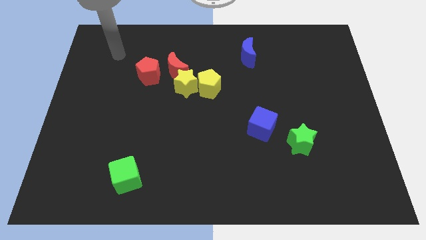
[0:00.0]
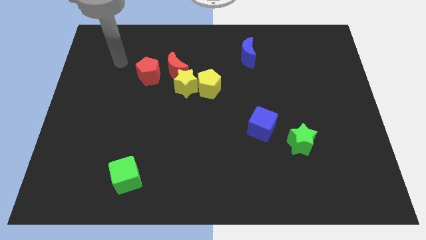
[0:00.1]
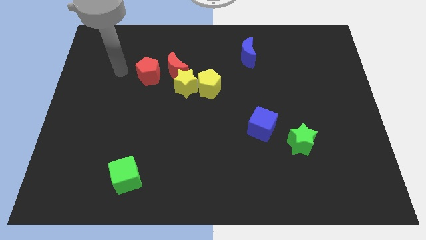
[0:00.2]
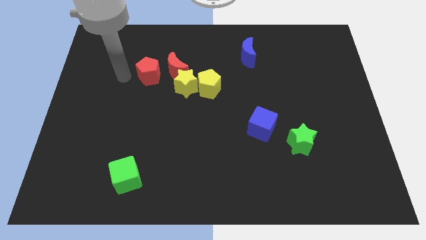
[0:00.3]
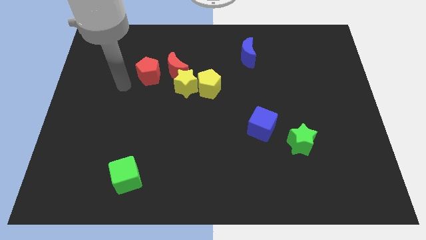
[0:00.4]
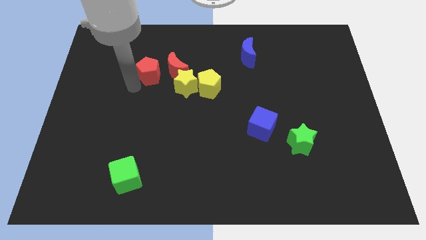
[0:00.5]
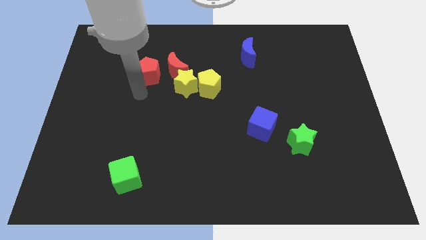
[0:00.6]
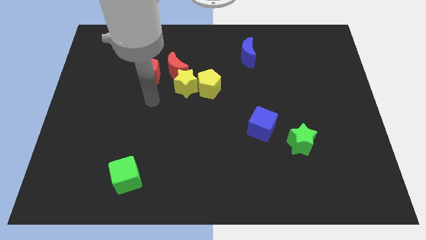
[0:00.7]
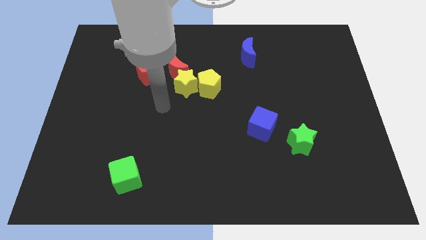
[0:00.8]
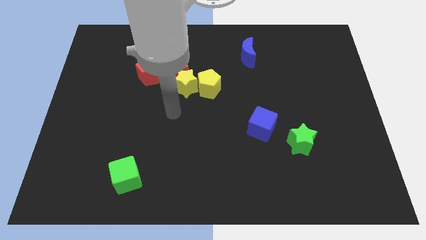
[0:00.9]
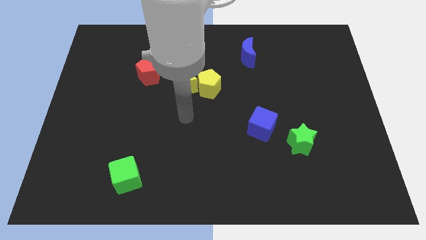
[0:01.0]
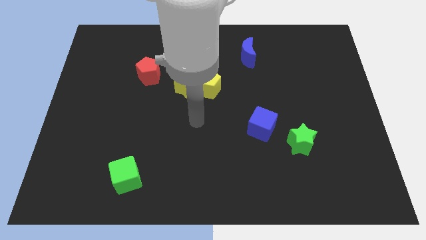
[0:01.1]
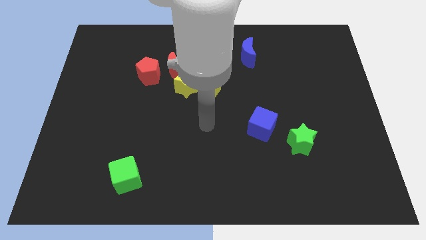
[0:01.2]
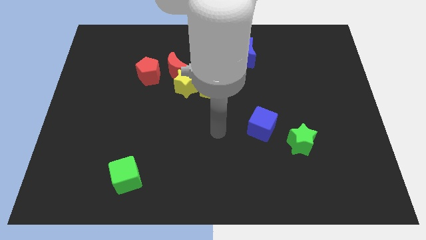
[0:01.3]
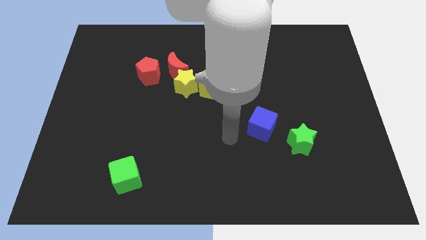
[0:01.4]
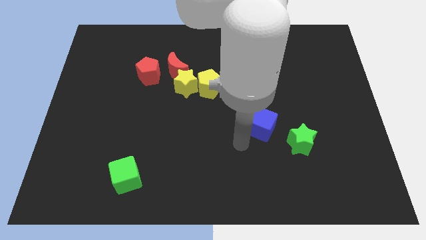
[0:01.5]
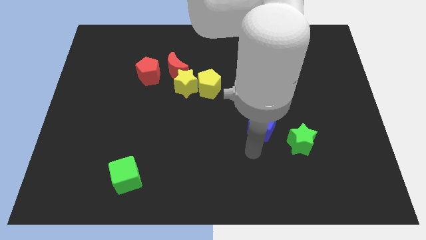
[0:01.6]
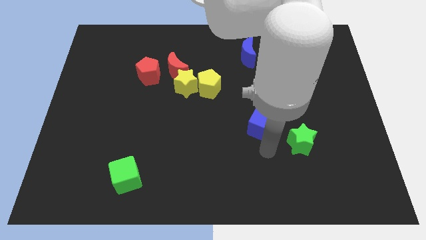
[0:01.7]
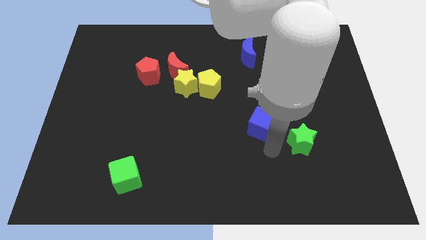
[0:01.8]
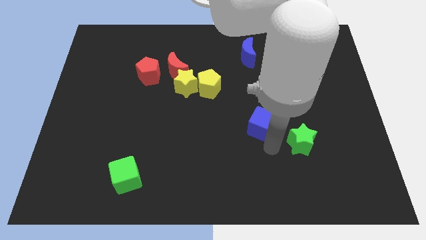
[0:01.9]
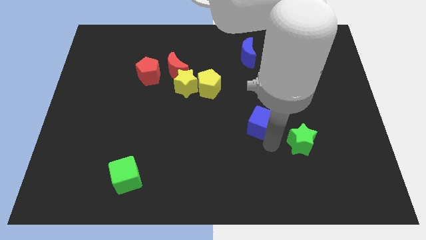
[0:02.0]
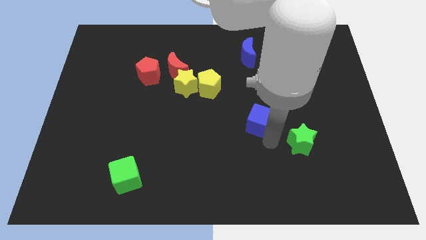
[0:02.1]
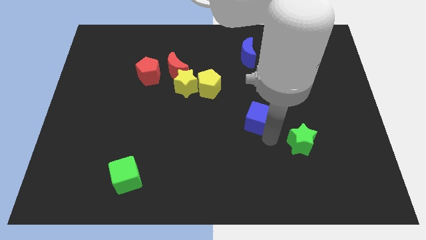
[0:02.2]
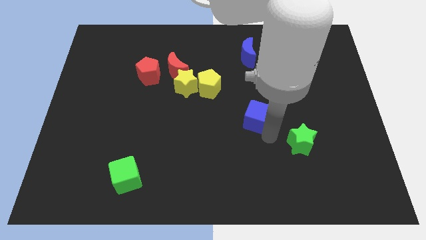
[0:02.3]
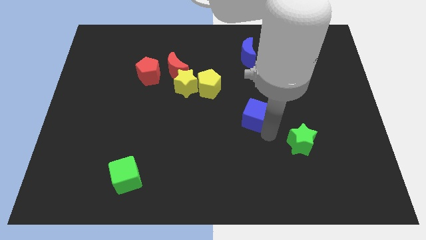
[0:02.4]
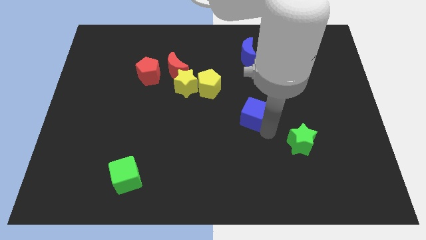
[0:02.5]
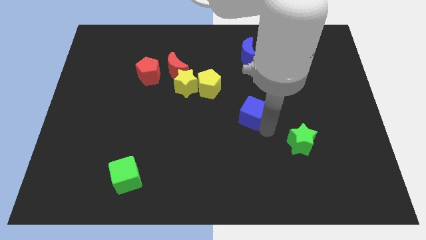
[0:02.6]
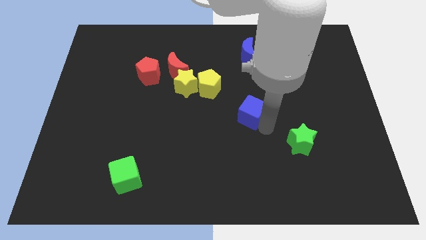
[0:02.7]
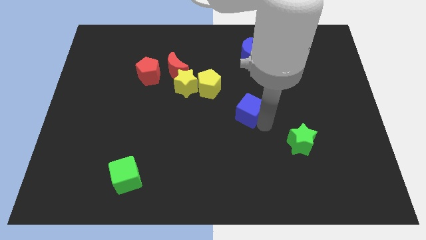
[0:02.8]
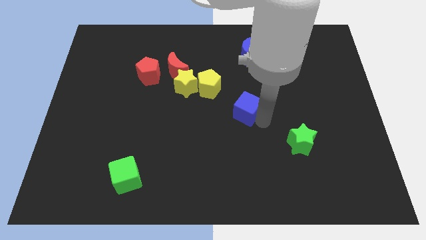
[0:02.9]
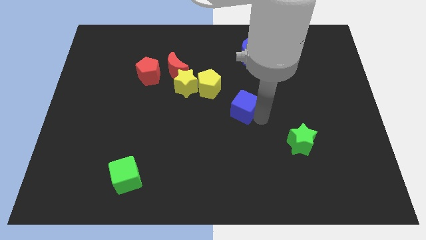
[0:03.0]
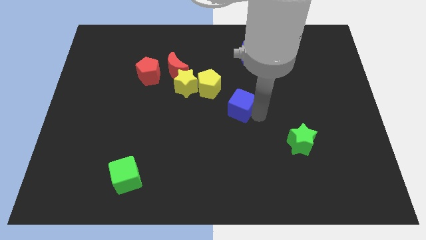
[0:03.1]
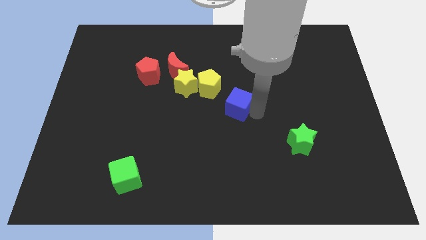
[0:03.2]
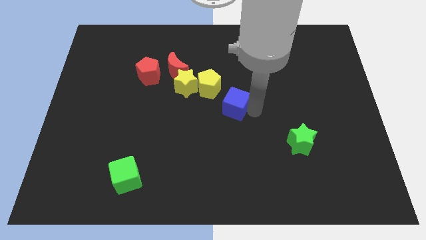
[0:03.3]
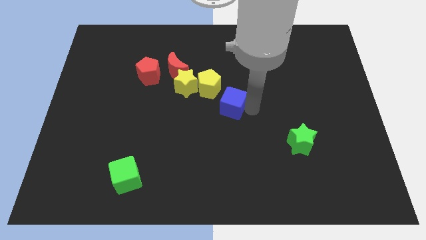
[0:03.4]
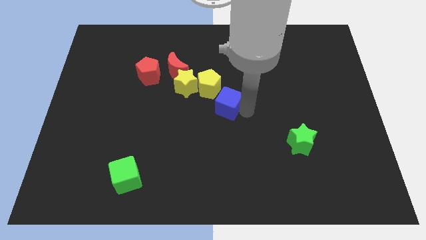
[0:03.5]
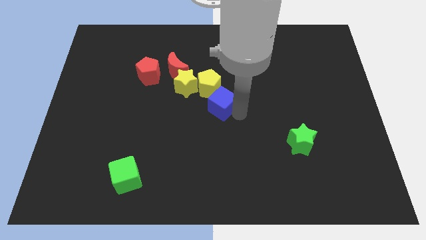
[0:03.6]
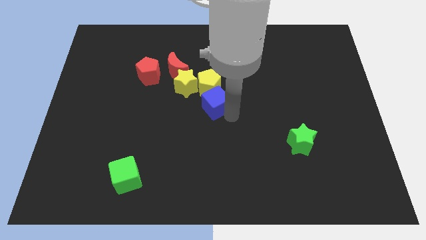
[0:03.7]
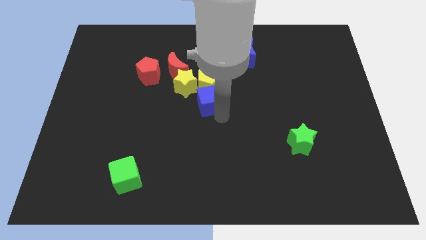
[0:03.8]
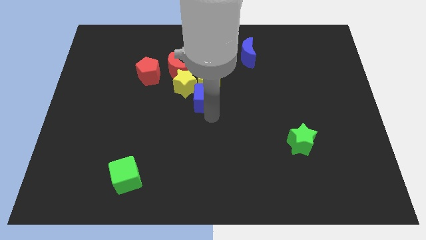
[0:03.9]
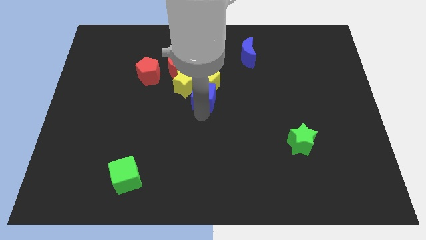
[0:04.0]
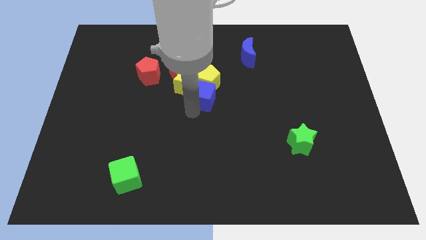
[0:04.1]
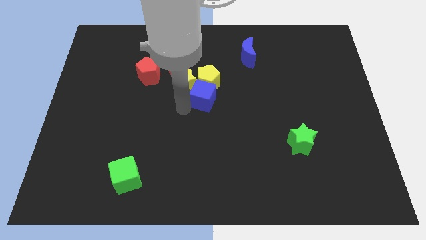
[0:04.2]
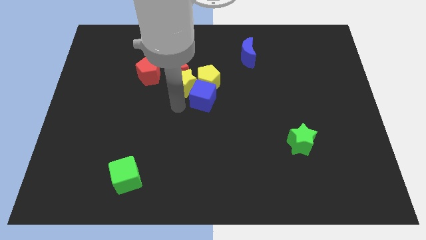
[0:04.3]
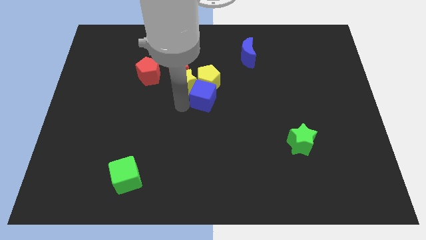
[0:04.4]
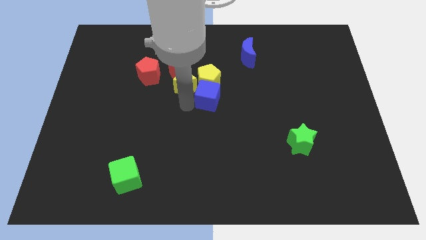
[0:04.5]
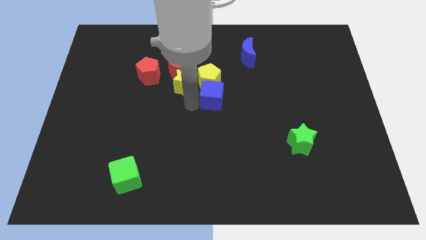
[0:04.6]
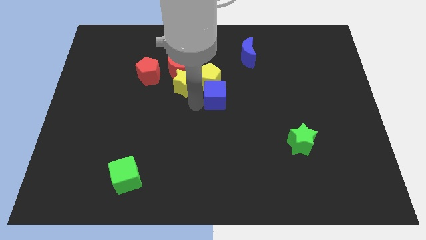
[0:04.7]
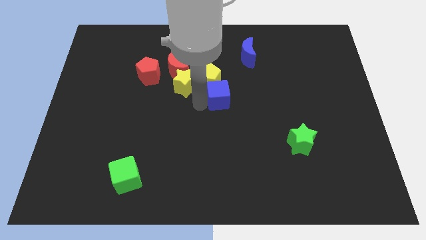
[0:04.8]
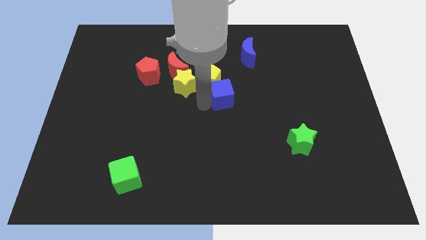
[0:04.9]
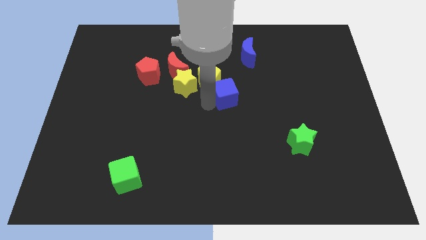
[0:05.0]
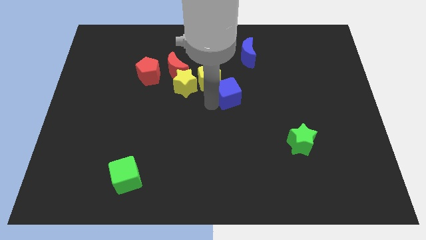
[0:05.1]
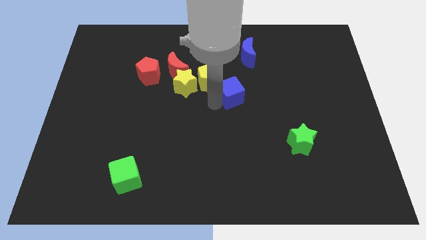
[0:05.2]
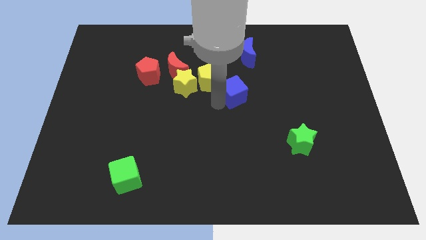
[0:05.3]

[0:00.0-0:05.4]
slide the blue cube to the bottom side of the blue moon

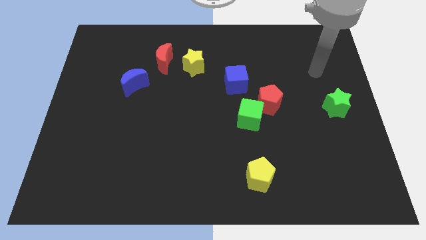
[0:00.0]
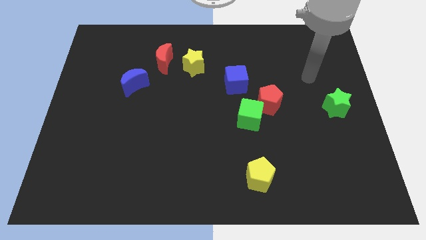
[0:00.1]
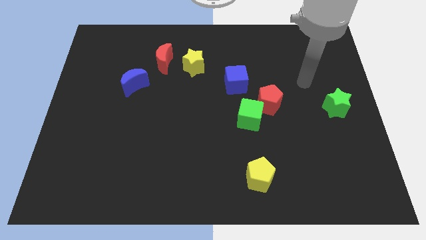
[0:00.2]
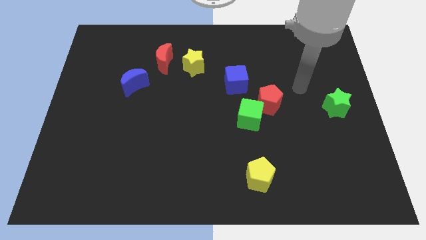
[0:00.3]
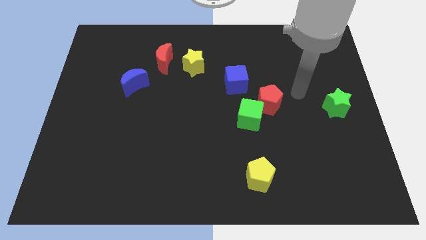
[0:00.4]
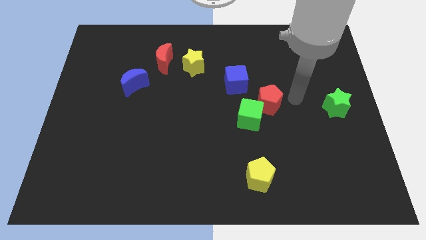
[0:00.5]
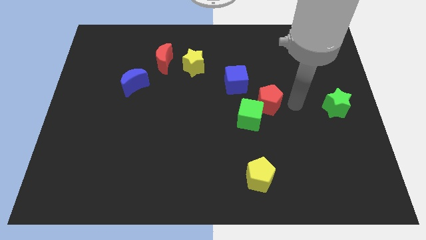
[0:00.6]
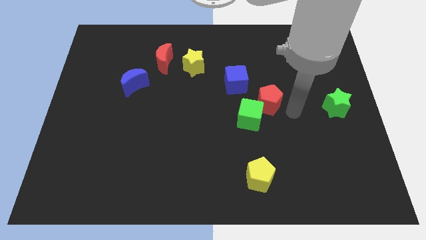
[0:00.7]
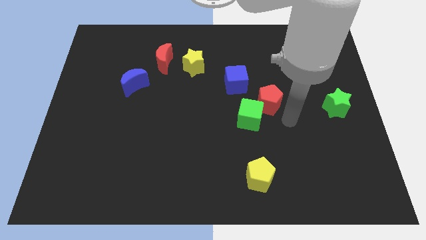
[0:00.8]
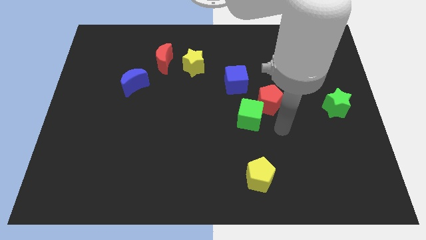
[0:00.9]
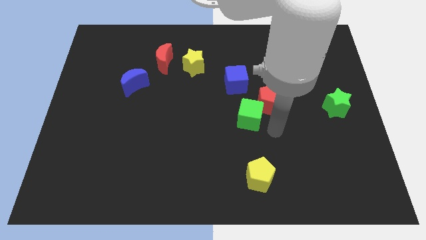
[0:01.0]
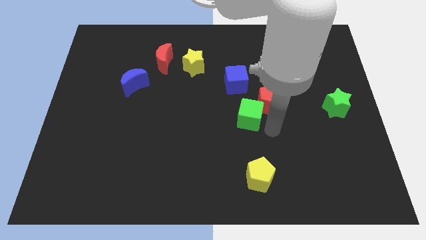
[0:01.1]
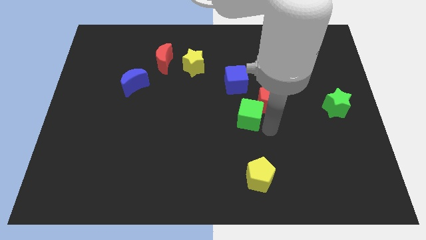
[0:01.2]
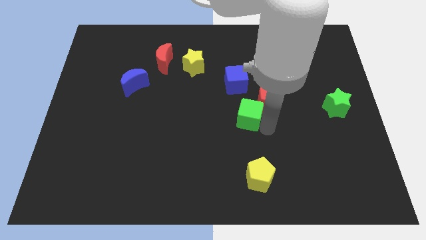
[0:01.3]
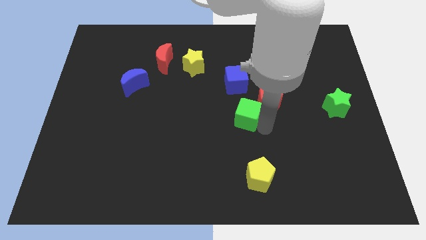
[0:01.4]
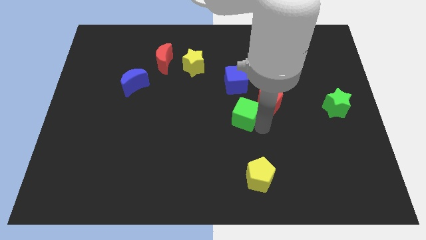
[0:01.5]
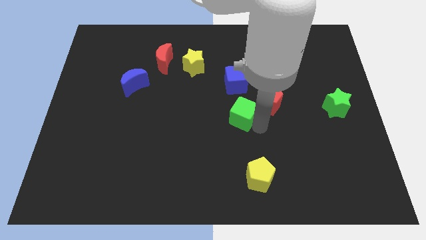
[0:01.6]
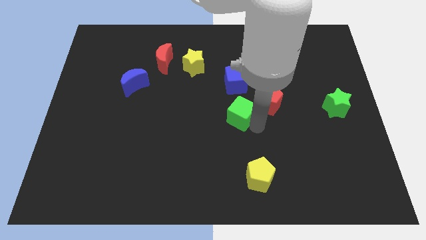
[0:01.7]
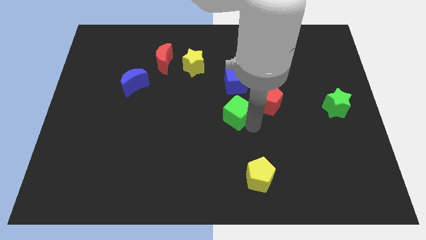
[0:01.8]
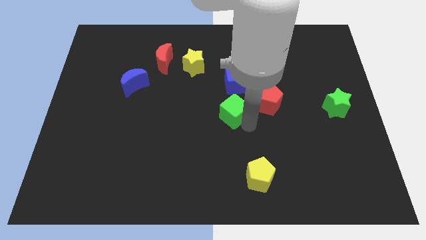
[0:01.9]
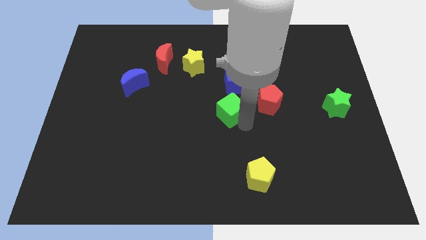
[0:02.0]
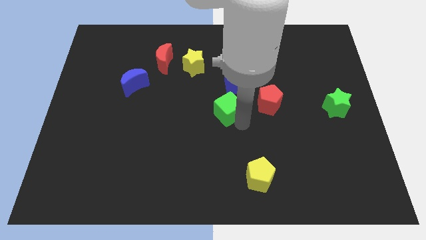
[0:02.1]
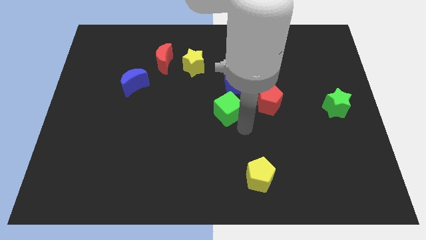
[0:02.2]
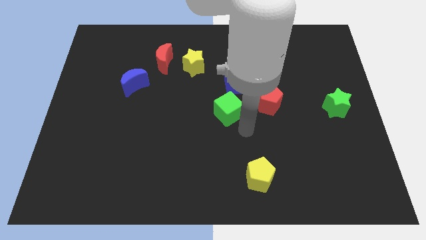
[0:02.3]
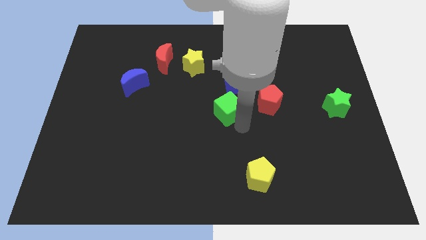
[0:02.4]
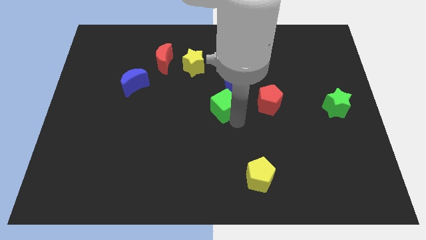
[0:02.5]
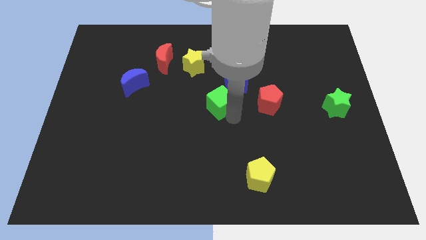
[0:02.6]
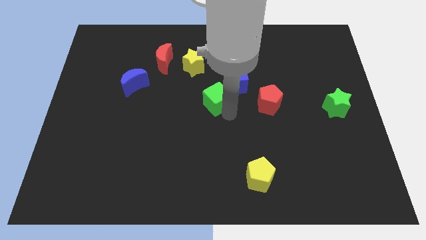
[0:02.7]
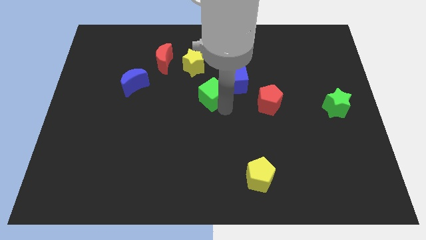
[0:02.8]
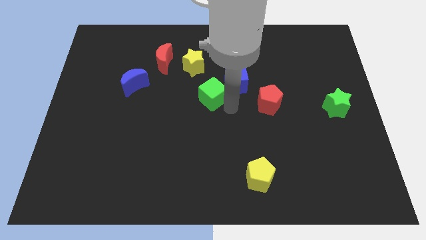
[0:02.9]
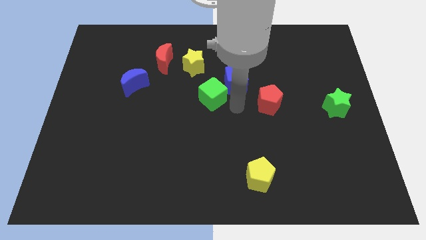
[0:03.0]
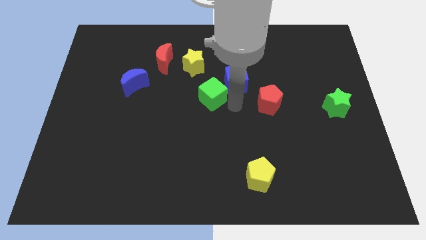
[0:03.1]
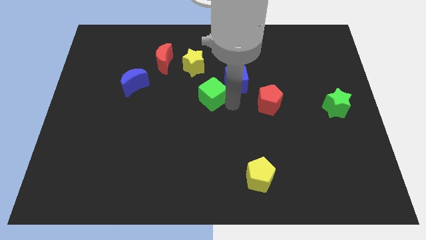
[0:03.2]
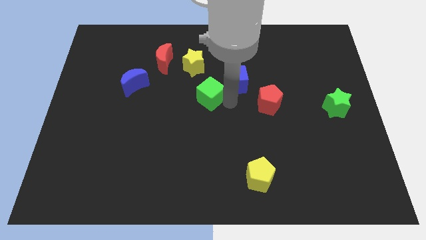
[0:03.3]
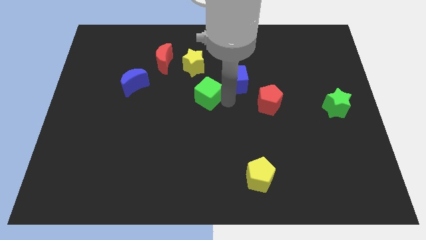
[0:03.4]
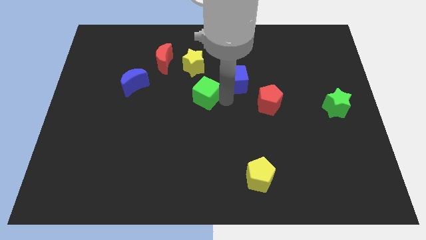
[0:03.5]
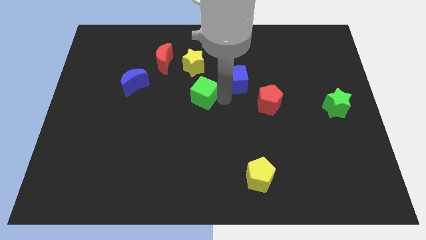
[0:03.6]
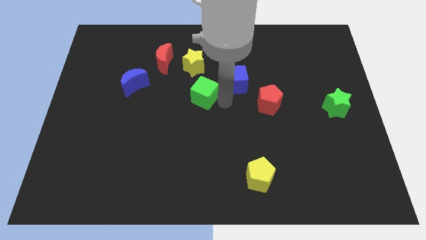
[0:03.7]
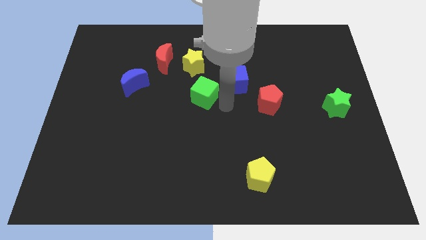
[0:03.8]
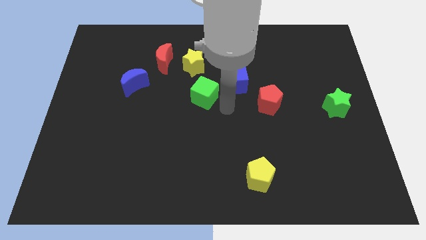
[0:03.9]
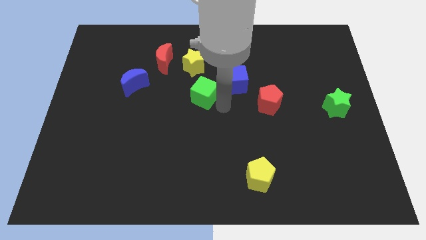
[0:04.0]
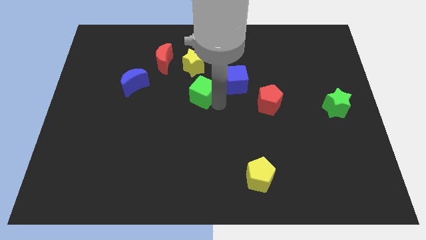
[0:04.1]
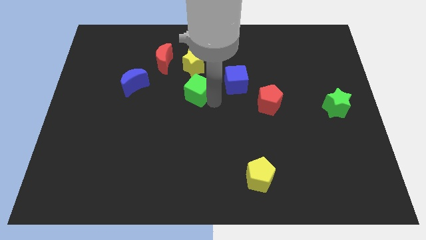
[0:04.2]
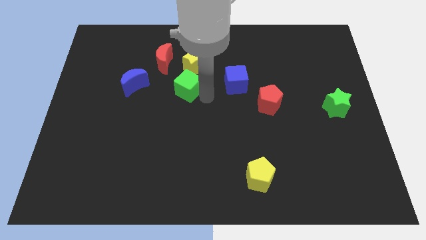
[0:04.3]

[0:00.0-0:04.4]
slide the green cube to the bottom left of the yellow star
